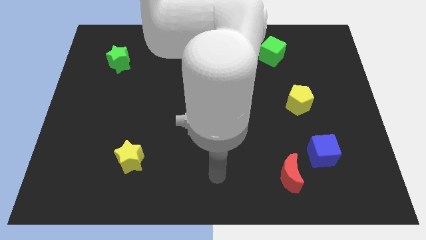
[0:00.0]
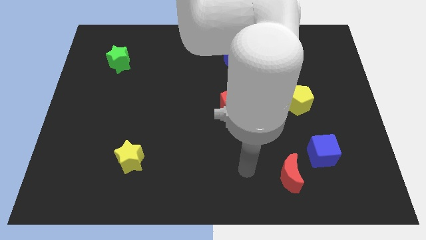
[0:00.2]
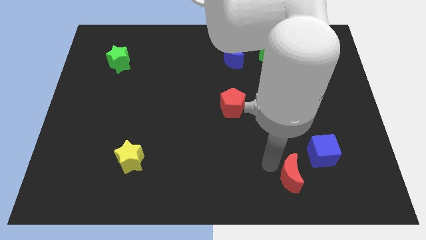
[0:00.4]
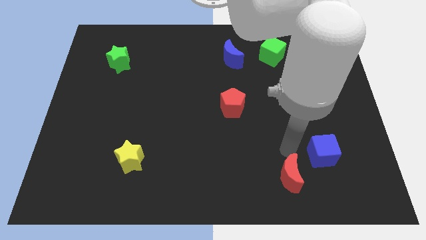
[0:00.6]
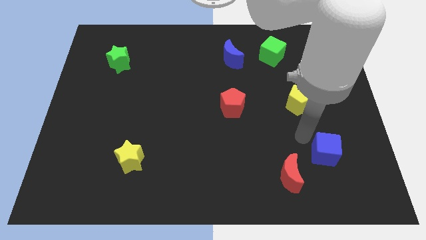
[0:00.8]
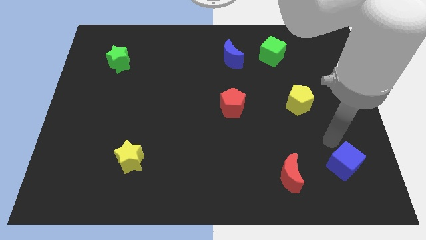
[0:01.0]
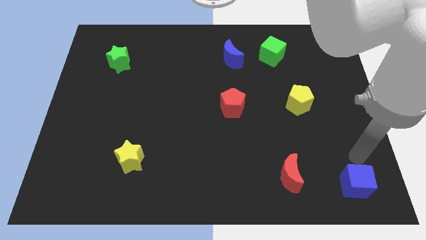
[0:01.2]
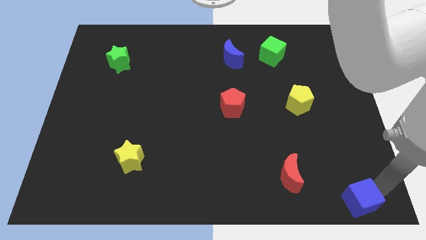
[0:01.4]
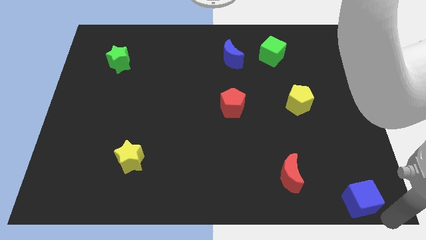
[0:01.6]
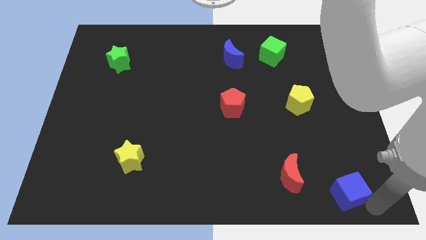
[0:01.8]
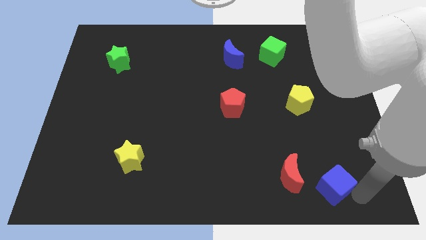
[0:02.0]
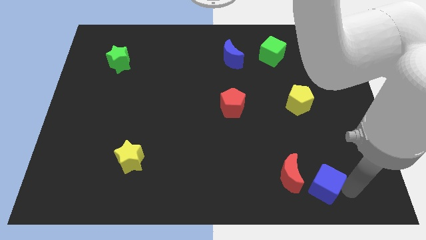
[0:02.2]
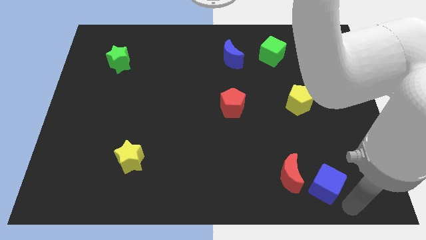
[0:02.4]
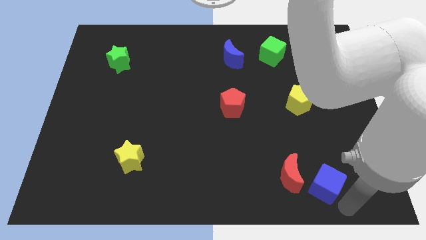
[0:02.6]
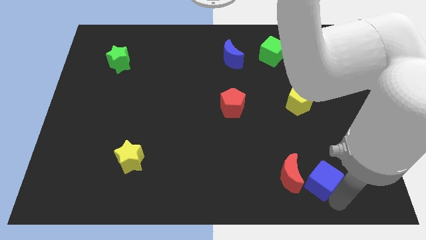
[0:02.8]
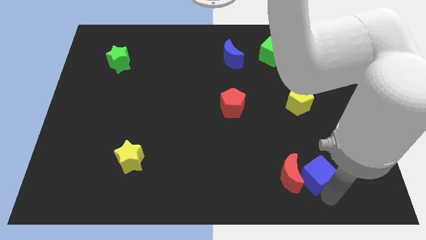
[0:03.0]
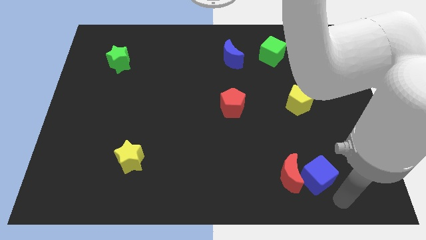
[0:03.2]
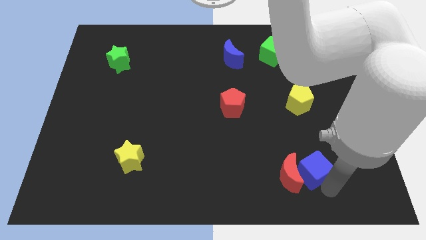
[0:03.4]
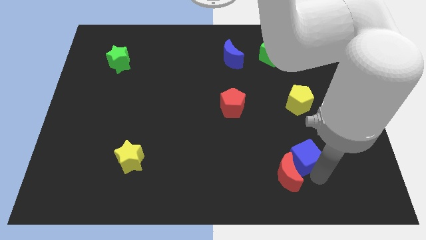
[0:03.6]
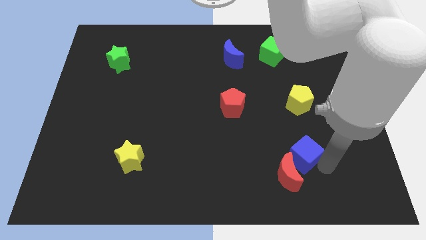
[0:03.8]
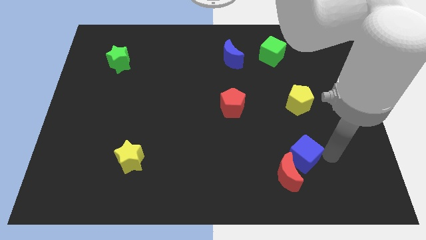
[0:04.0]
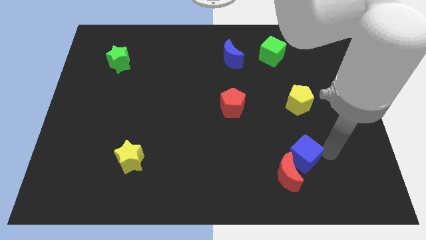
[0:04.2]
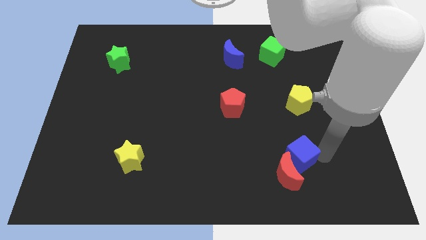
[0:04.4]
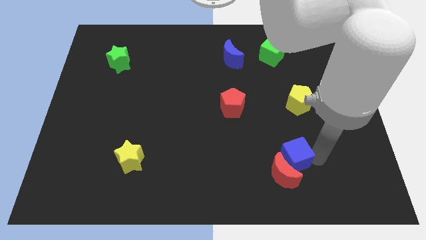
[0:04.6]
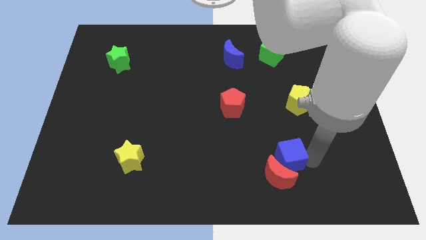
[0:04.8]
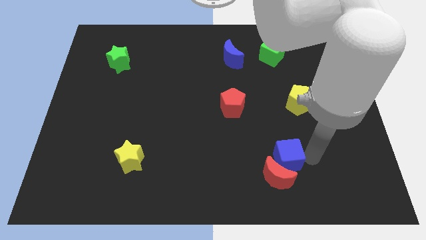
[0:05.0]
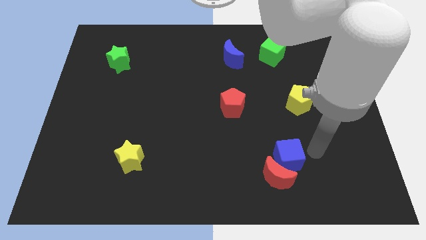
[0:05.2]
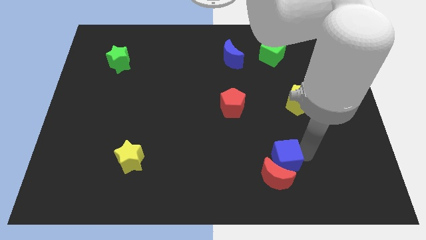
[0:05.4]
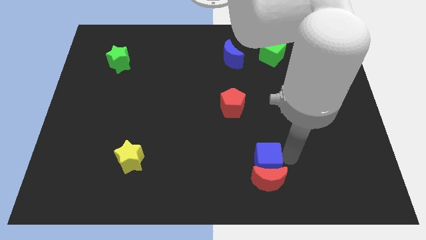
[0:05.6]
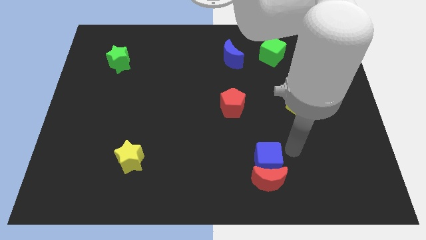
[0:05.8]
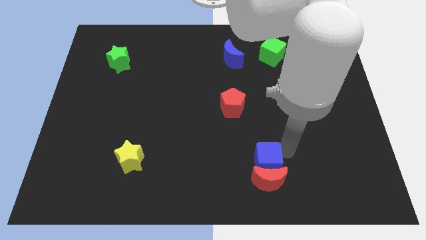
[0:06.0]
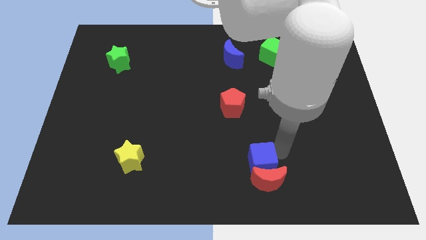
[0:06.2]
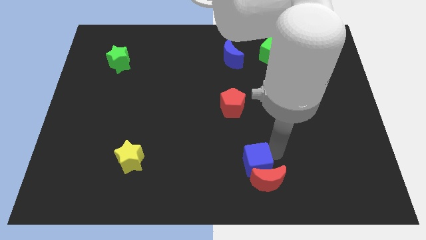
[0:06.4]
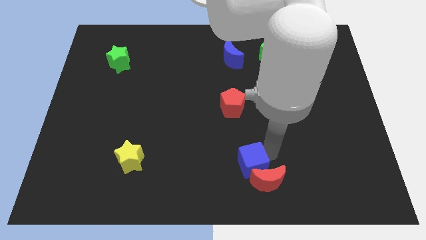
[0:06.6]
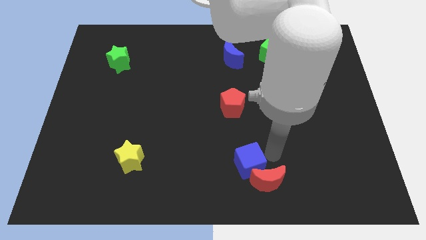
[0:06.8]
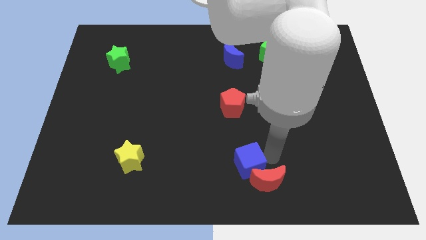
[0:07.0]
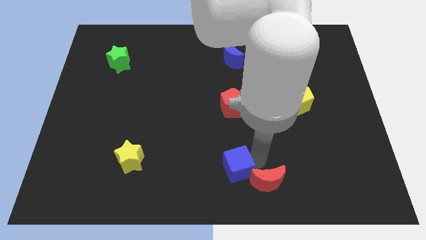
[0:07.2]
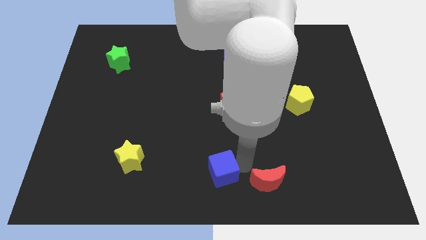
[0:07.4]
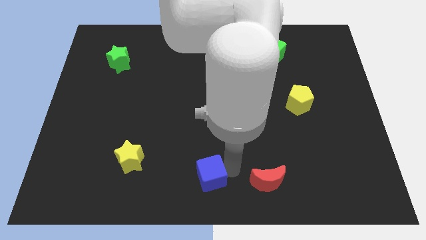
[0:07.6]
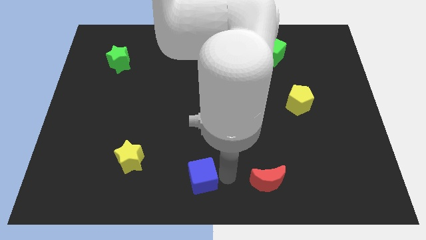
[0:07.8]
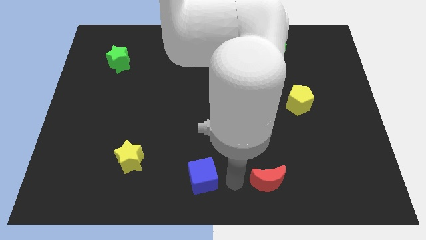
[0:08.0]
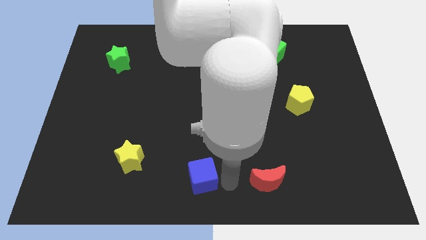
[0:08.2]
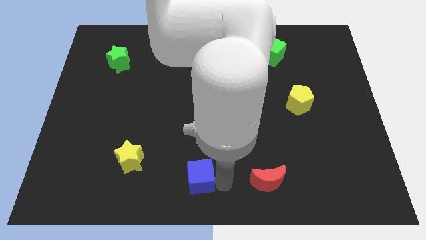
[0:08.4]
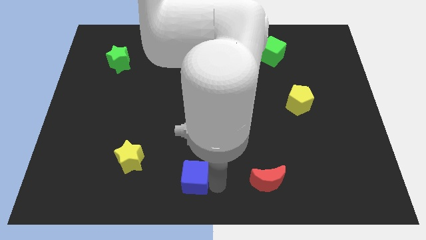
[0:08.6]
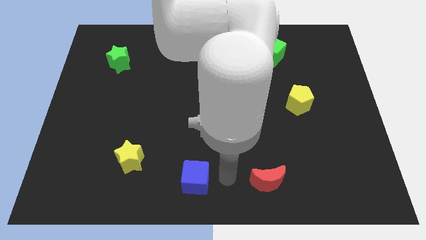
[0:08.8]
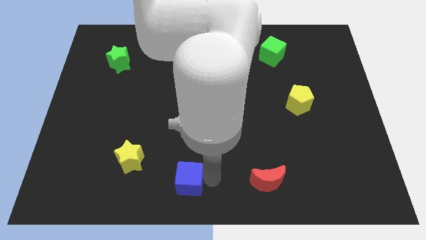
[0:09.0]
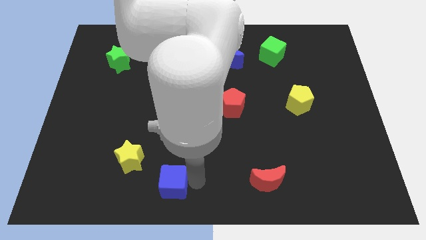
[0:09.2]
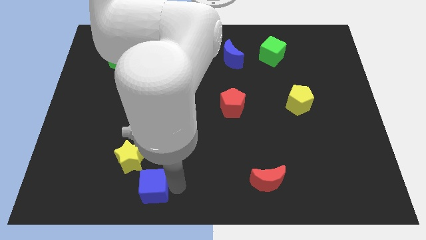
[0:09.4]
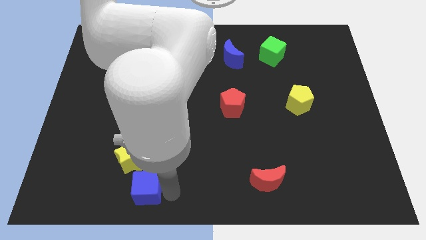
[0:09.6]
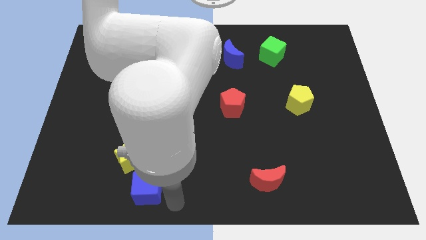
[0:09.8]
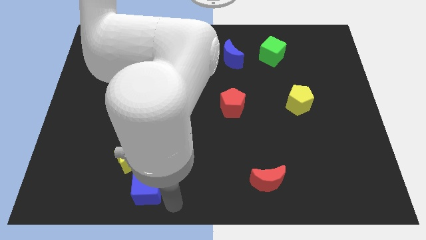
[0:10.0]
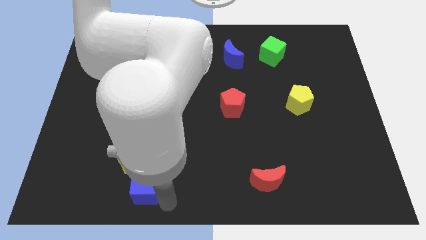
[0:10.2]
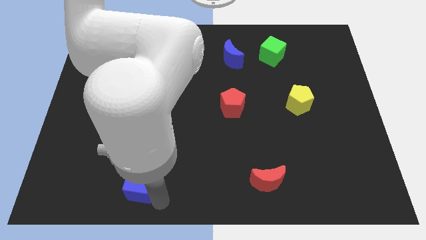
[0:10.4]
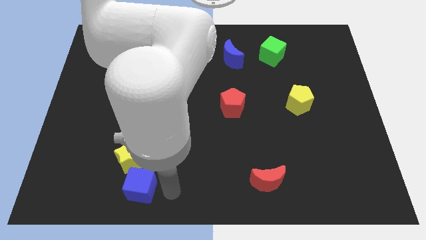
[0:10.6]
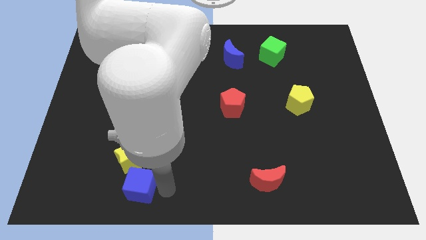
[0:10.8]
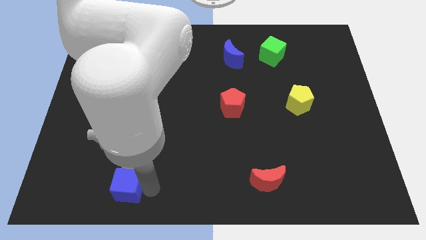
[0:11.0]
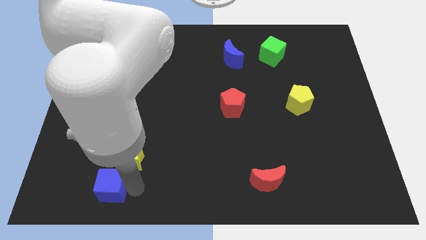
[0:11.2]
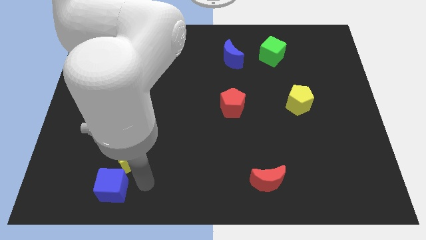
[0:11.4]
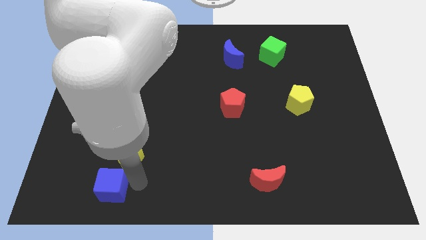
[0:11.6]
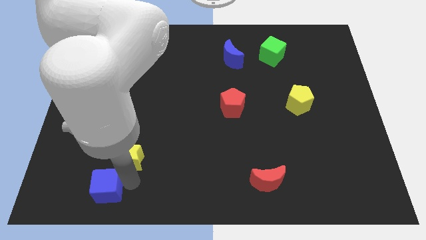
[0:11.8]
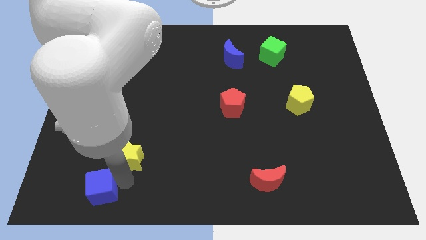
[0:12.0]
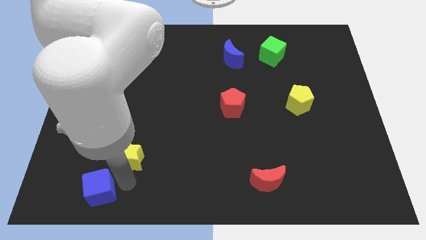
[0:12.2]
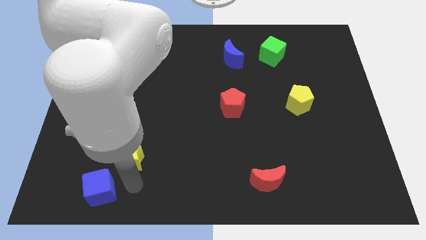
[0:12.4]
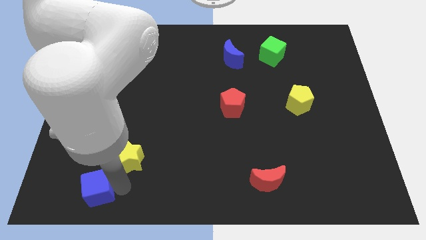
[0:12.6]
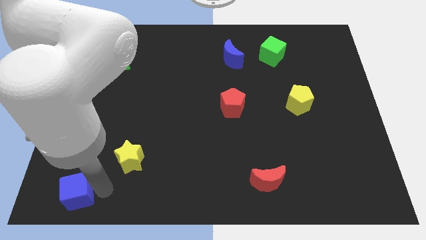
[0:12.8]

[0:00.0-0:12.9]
push the blue cube to the lower left corner
